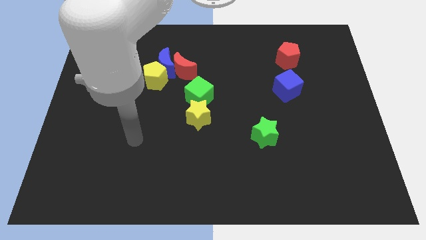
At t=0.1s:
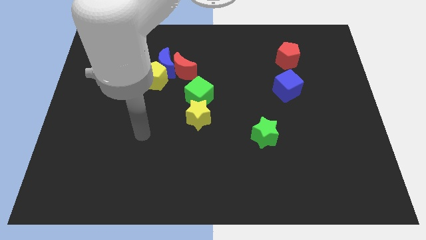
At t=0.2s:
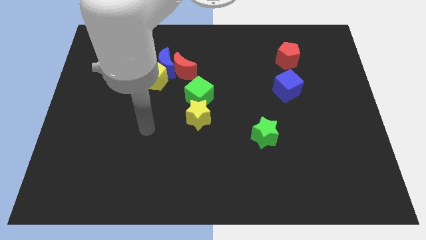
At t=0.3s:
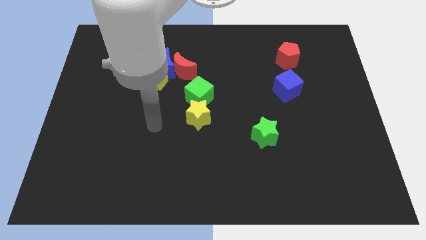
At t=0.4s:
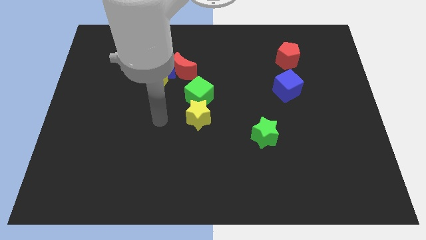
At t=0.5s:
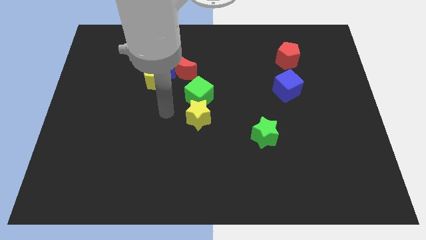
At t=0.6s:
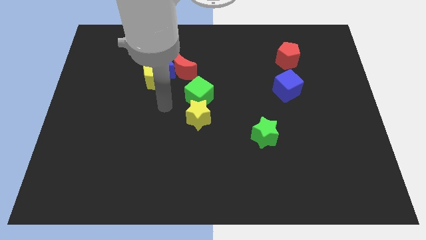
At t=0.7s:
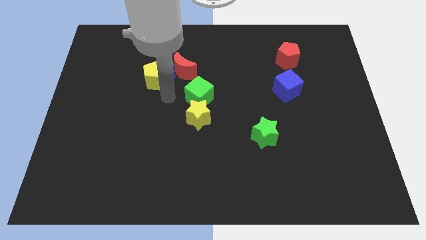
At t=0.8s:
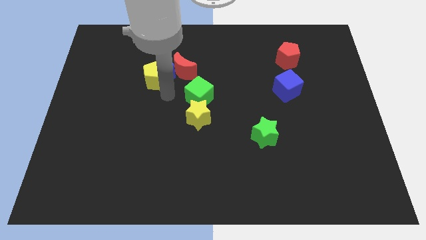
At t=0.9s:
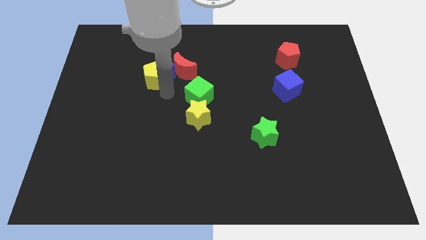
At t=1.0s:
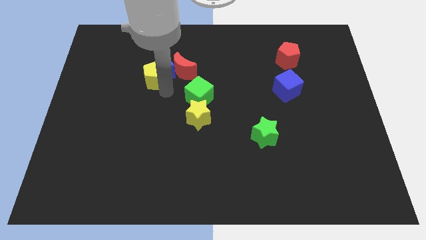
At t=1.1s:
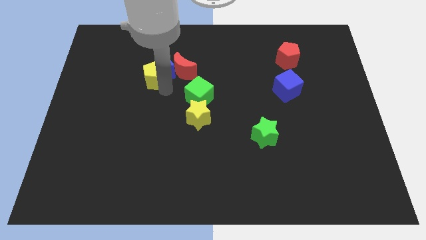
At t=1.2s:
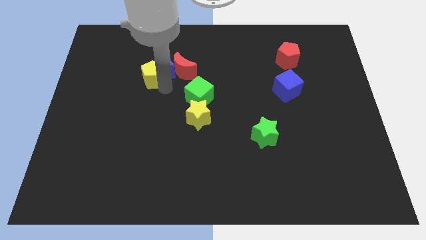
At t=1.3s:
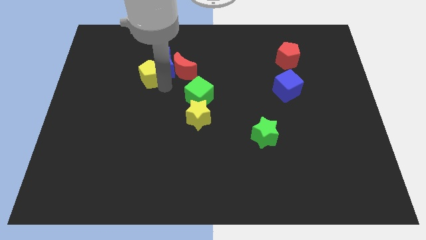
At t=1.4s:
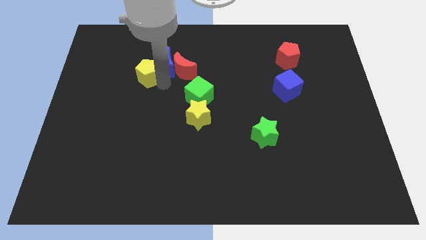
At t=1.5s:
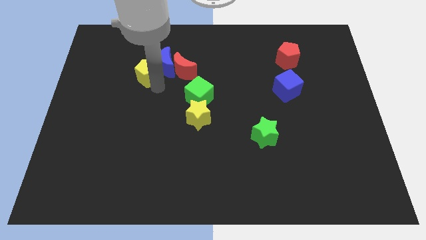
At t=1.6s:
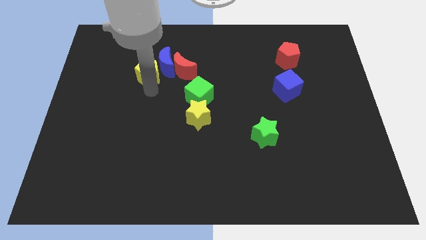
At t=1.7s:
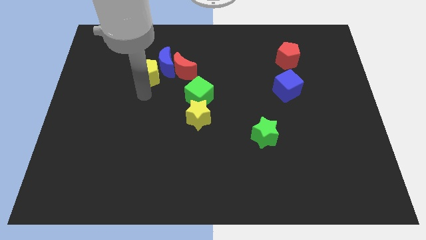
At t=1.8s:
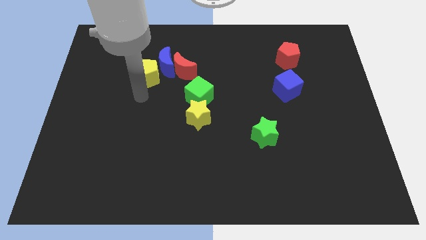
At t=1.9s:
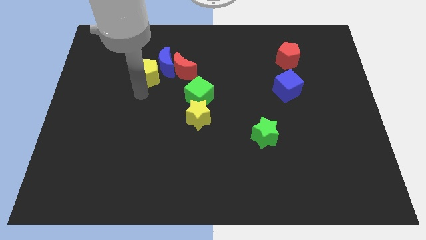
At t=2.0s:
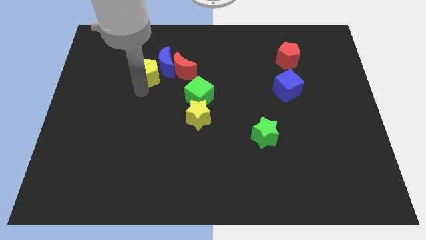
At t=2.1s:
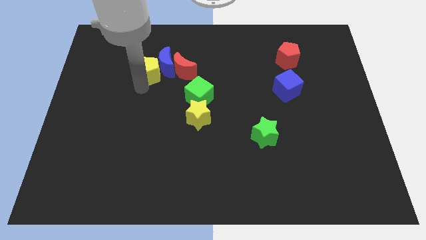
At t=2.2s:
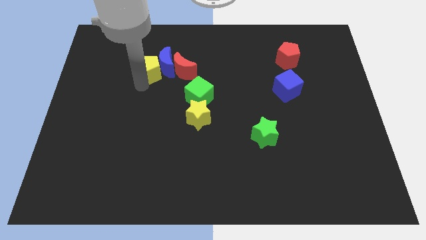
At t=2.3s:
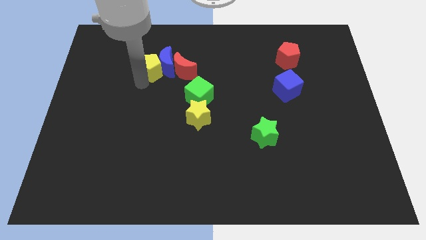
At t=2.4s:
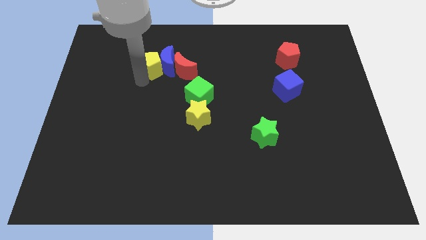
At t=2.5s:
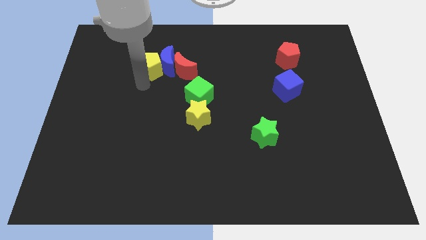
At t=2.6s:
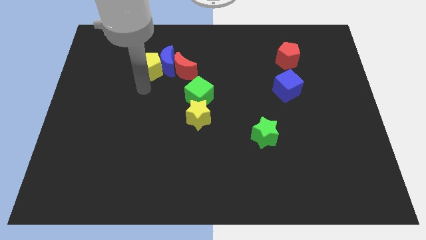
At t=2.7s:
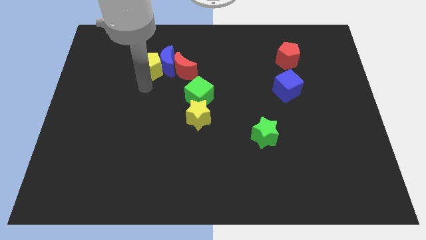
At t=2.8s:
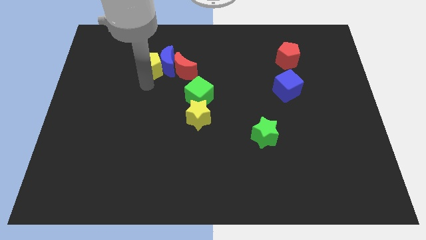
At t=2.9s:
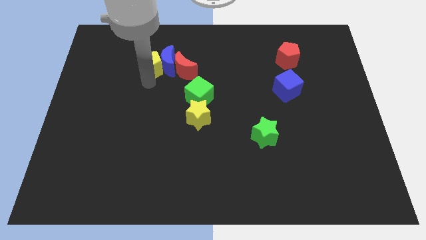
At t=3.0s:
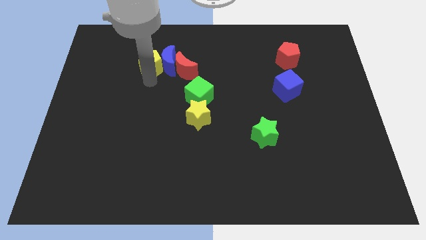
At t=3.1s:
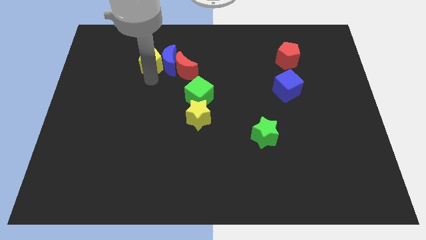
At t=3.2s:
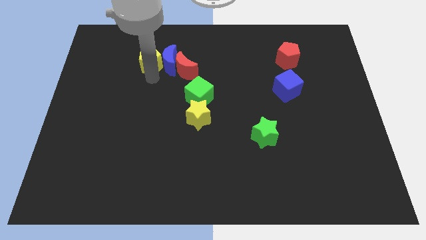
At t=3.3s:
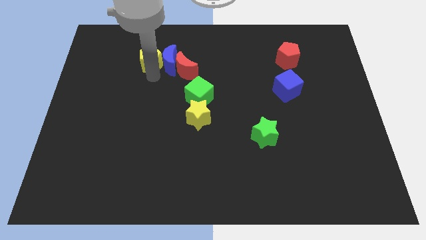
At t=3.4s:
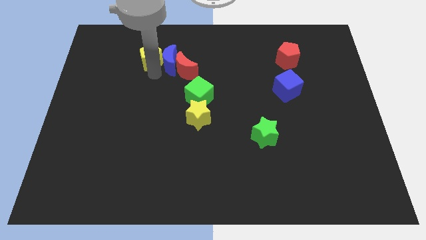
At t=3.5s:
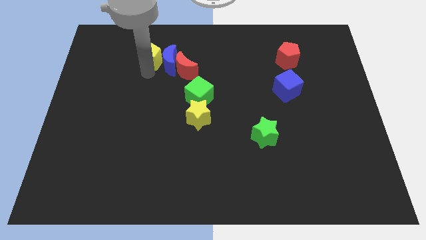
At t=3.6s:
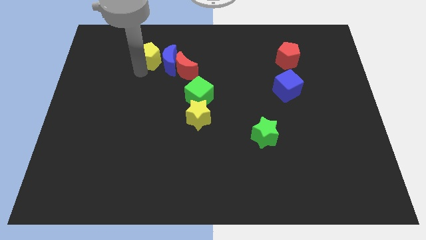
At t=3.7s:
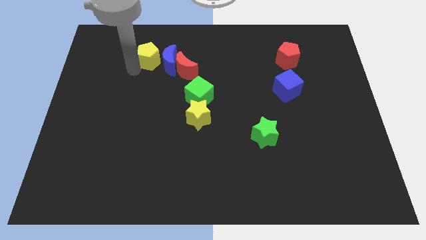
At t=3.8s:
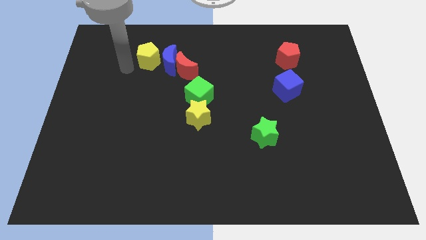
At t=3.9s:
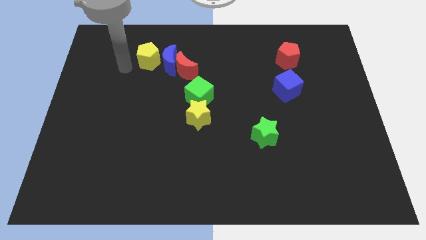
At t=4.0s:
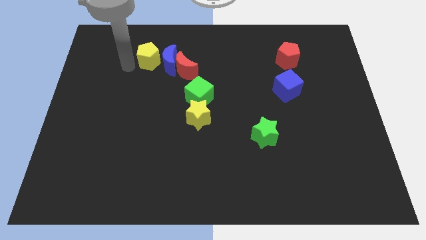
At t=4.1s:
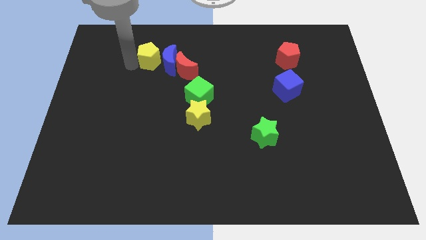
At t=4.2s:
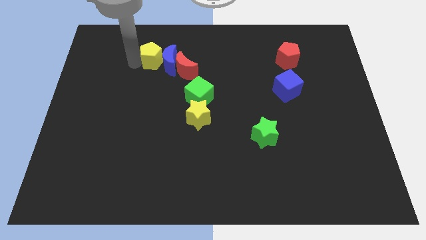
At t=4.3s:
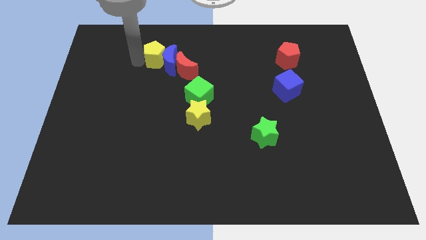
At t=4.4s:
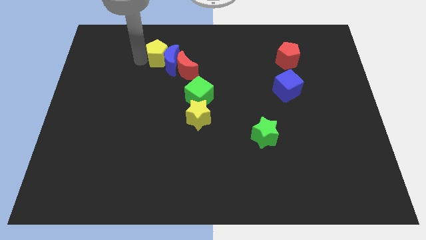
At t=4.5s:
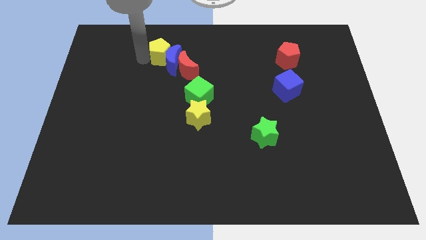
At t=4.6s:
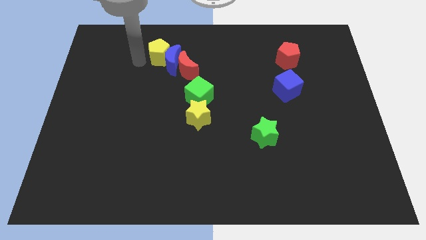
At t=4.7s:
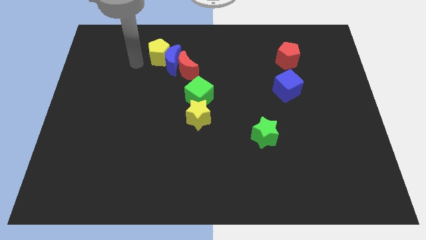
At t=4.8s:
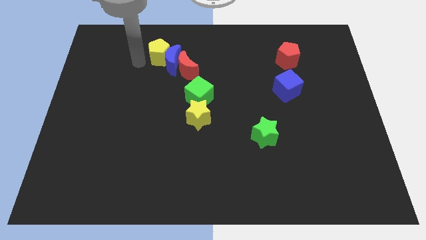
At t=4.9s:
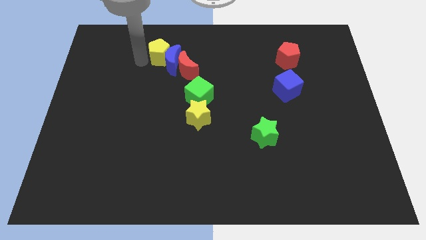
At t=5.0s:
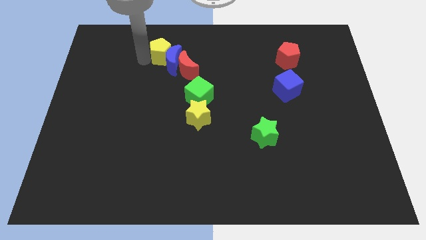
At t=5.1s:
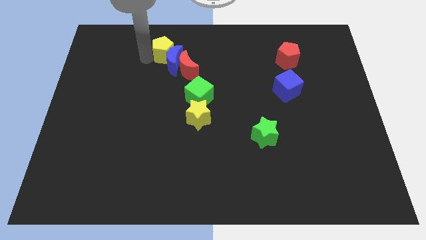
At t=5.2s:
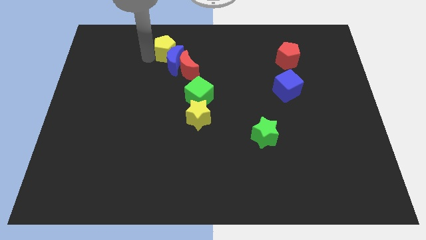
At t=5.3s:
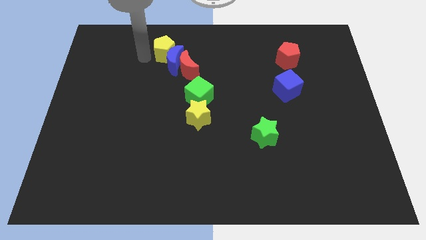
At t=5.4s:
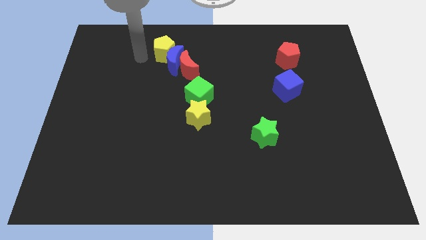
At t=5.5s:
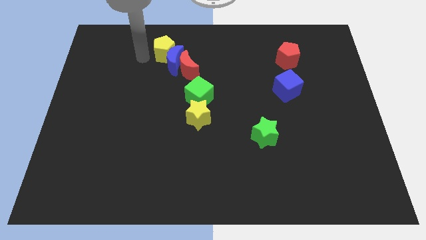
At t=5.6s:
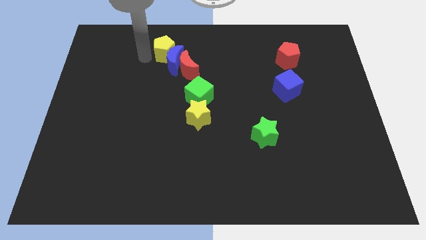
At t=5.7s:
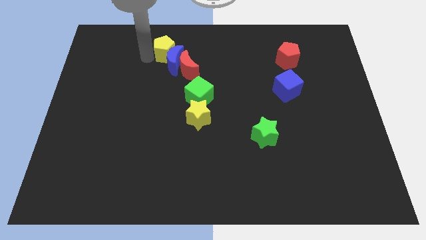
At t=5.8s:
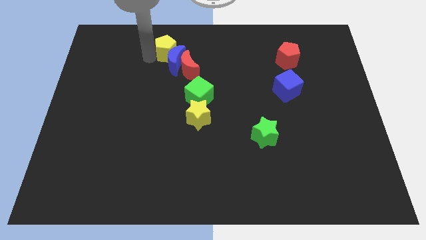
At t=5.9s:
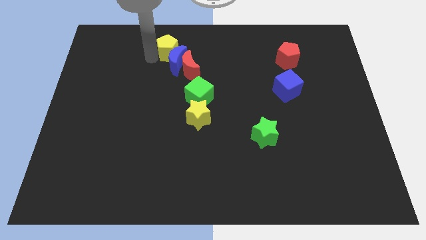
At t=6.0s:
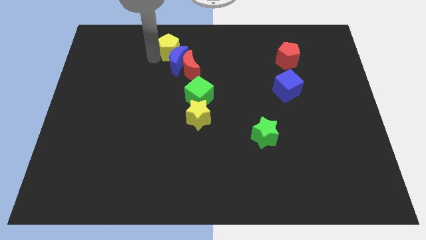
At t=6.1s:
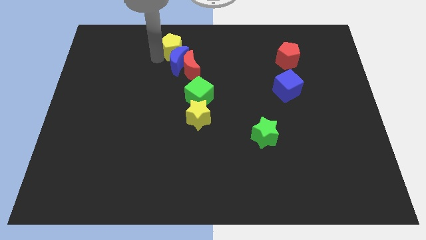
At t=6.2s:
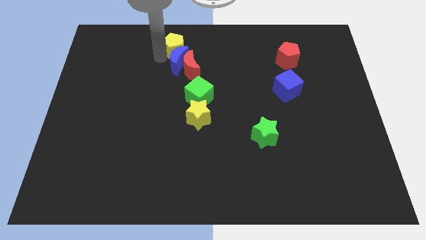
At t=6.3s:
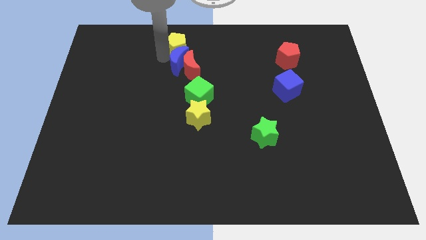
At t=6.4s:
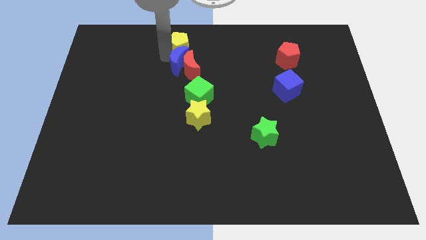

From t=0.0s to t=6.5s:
put the yellow pentagon to the top side

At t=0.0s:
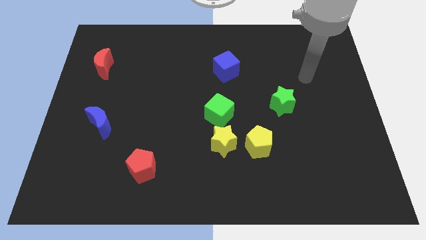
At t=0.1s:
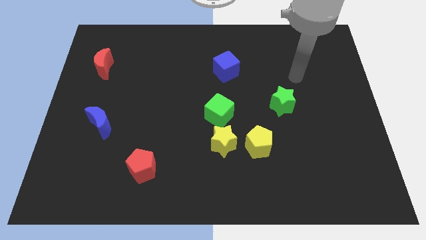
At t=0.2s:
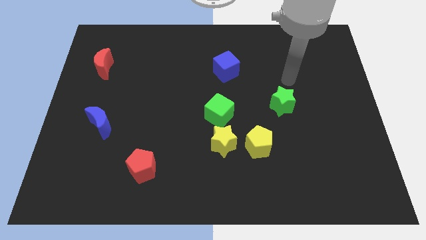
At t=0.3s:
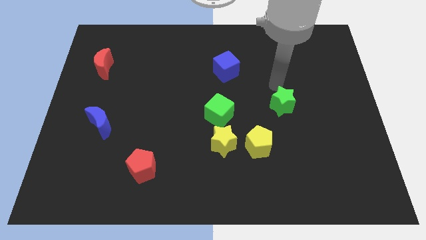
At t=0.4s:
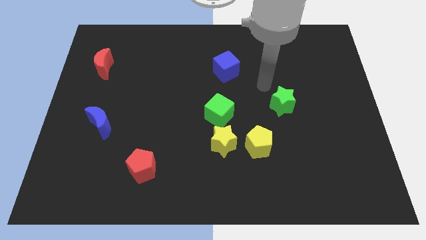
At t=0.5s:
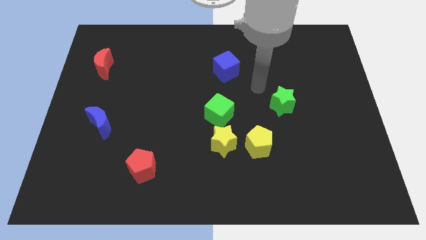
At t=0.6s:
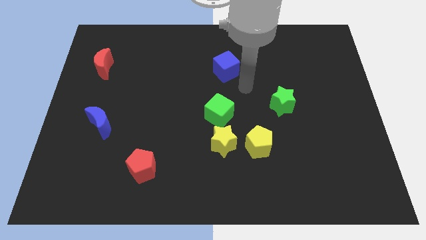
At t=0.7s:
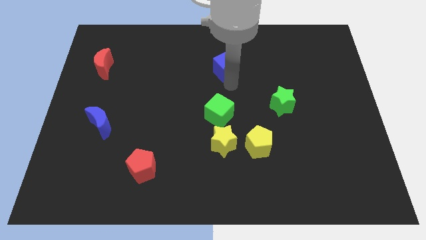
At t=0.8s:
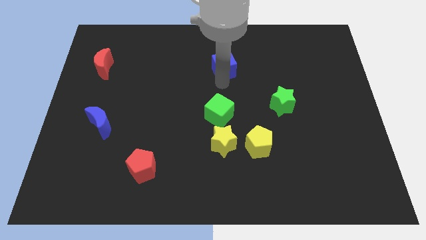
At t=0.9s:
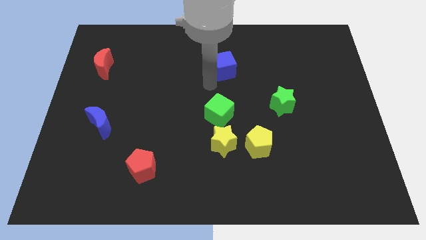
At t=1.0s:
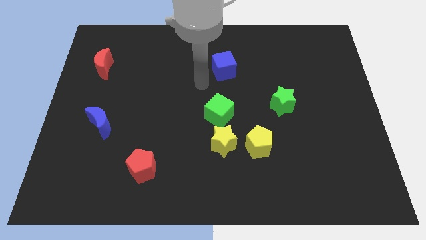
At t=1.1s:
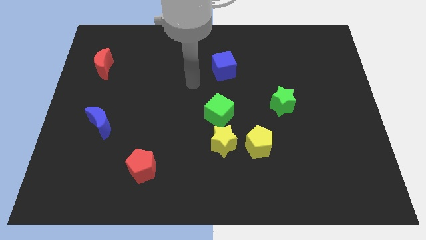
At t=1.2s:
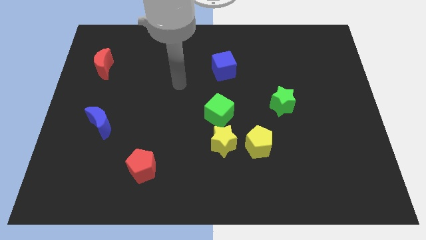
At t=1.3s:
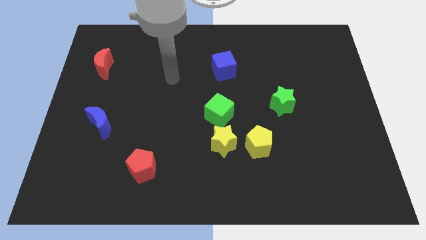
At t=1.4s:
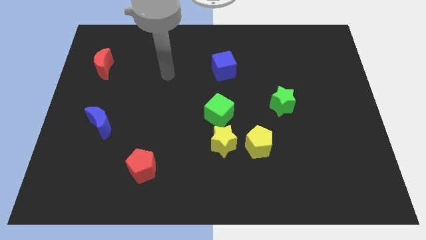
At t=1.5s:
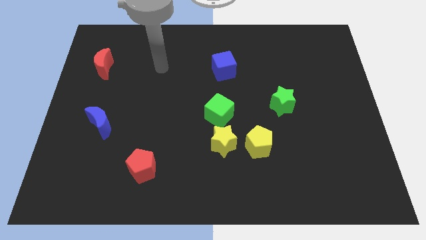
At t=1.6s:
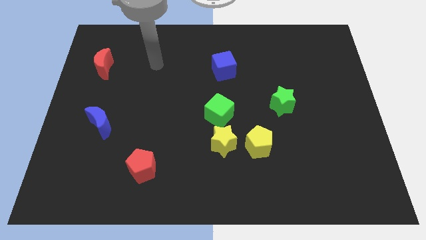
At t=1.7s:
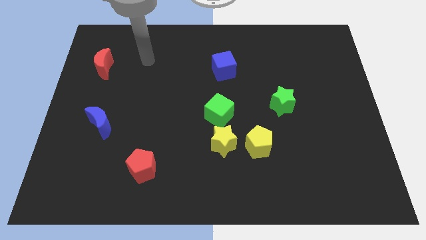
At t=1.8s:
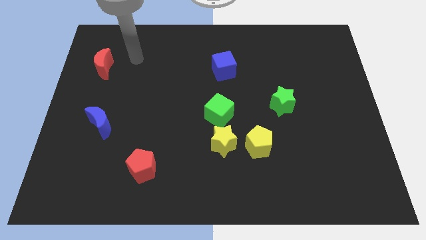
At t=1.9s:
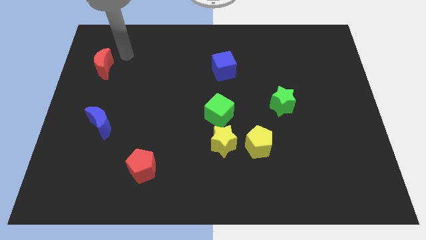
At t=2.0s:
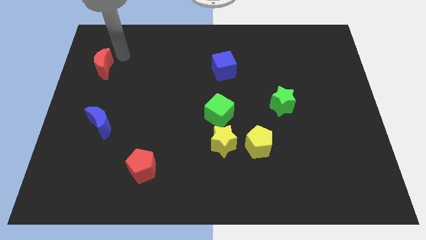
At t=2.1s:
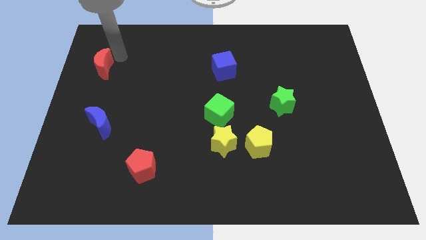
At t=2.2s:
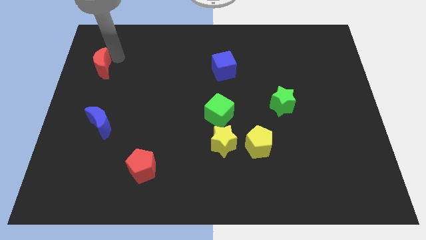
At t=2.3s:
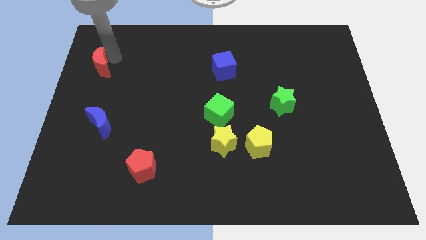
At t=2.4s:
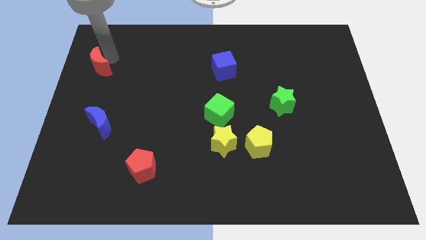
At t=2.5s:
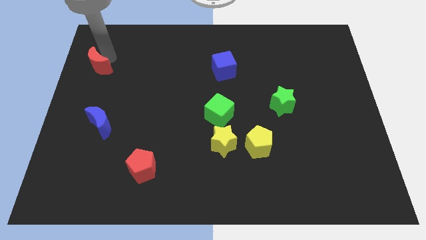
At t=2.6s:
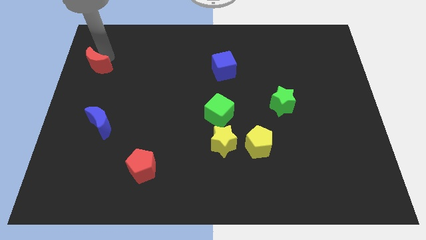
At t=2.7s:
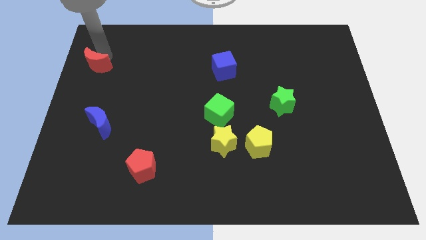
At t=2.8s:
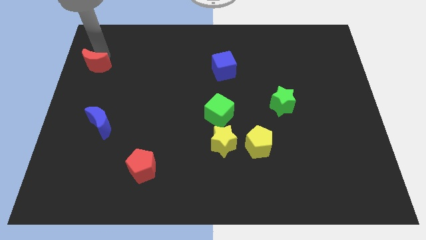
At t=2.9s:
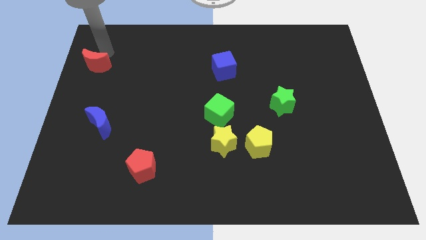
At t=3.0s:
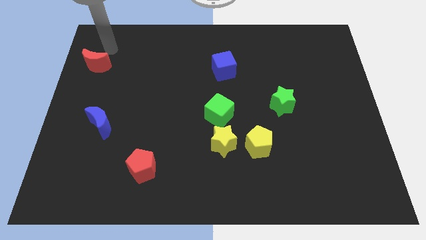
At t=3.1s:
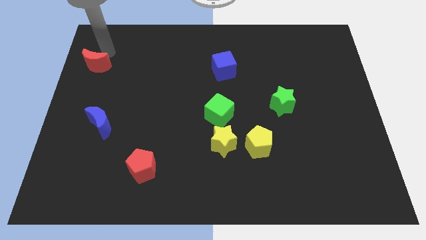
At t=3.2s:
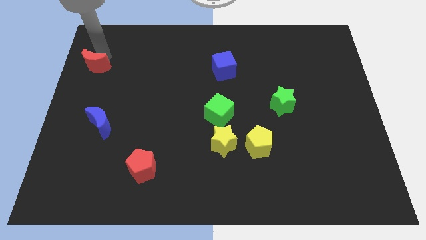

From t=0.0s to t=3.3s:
slide the red moon to the left side of the board
